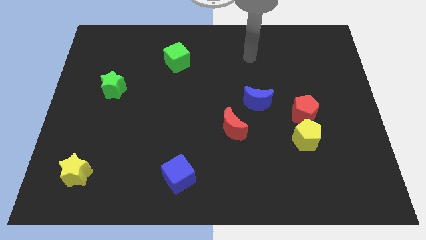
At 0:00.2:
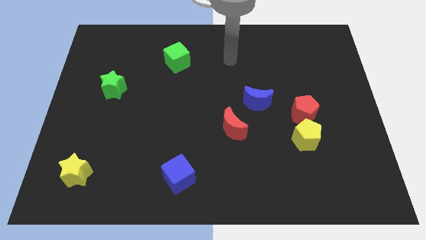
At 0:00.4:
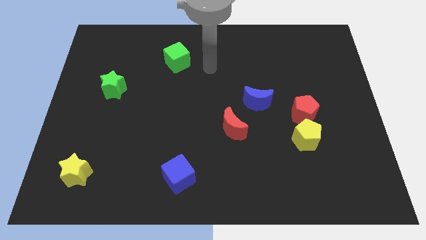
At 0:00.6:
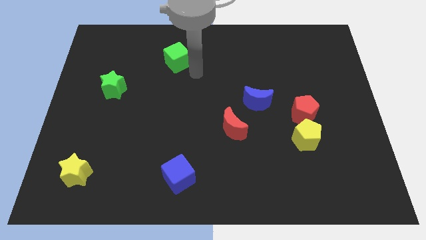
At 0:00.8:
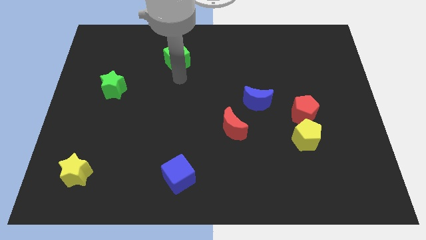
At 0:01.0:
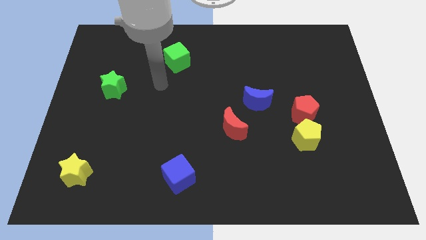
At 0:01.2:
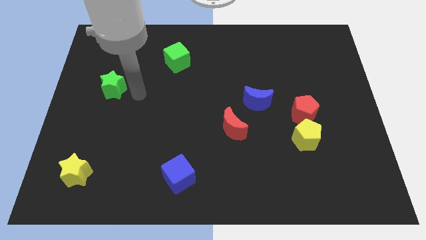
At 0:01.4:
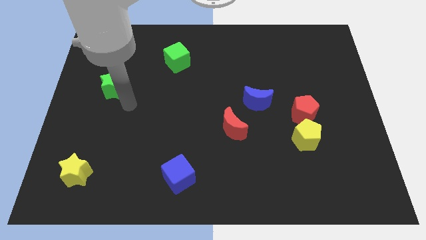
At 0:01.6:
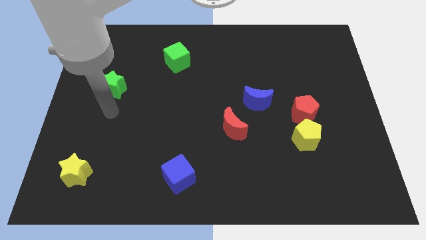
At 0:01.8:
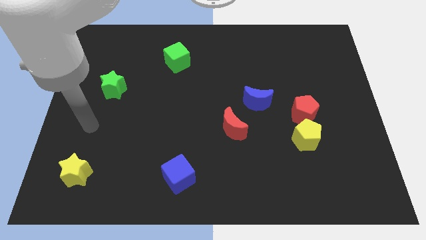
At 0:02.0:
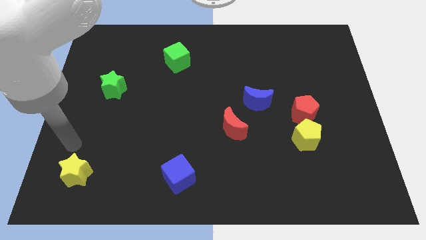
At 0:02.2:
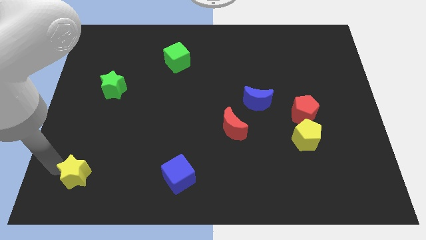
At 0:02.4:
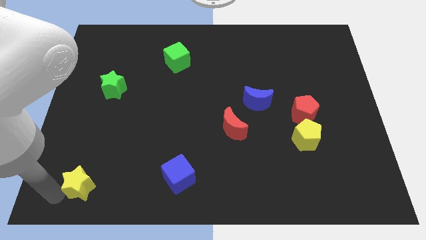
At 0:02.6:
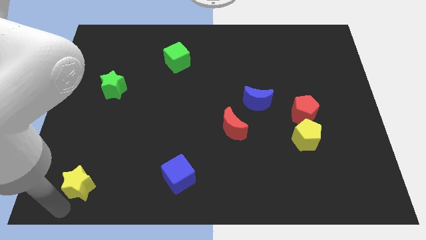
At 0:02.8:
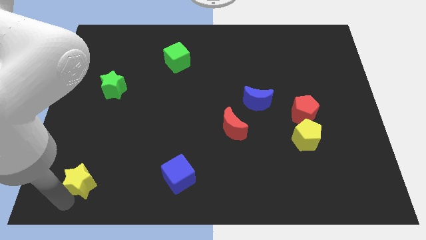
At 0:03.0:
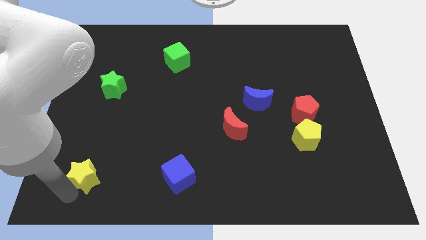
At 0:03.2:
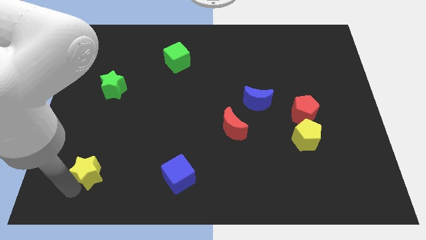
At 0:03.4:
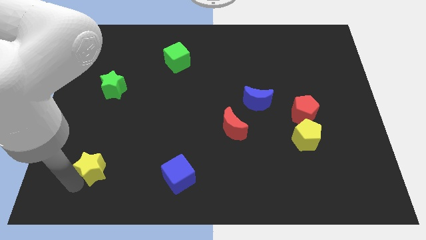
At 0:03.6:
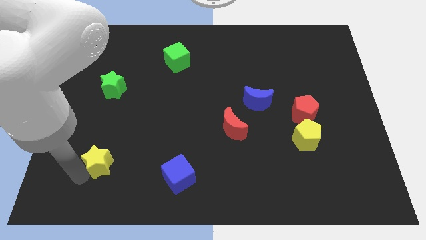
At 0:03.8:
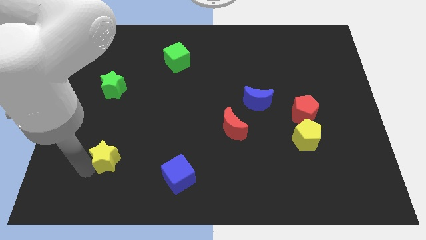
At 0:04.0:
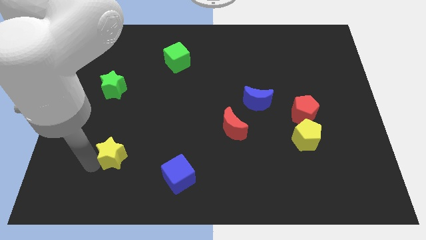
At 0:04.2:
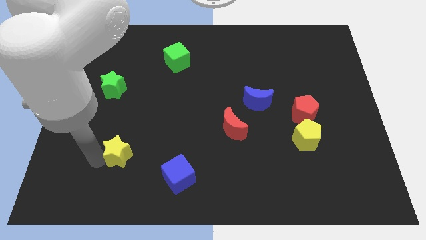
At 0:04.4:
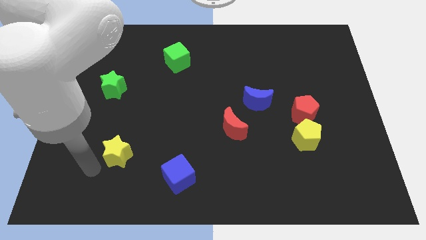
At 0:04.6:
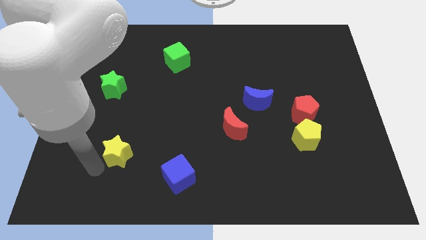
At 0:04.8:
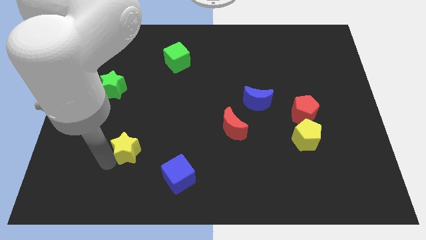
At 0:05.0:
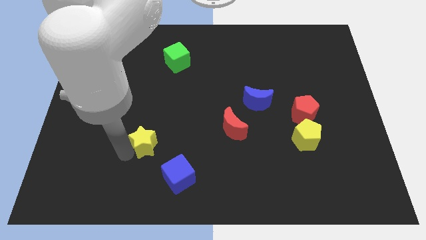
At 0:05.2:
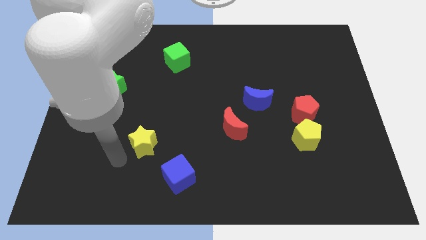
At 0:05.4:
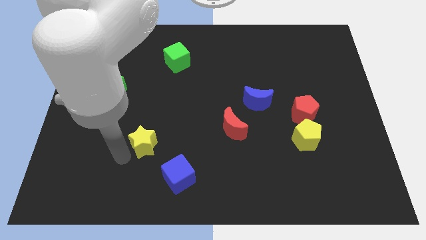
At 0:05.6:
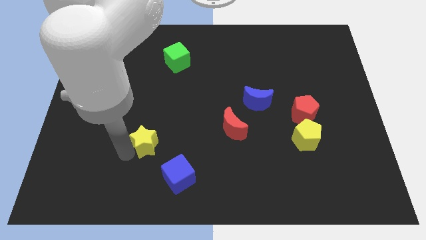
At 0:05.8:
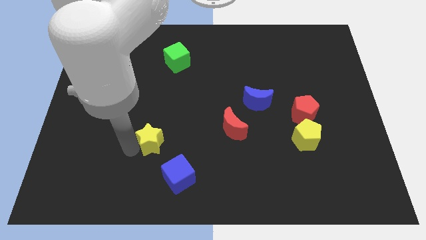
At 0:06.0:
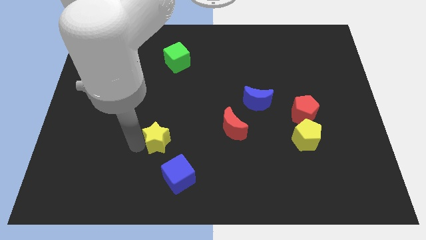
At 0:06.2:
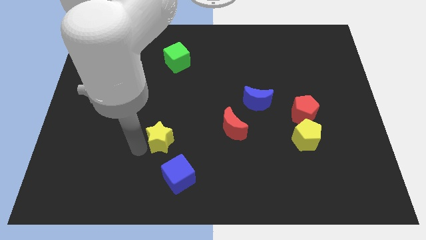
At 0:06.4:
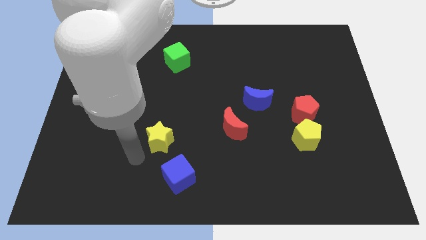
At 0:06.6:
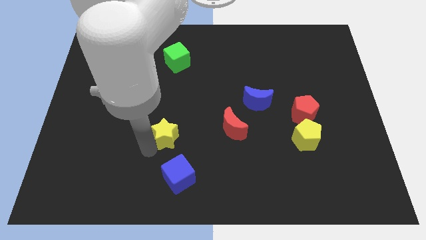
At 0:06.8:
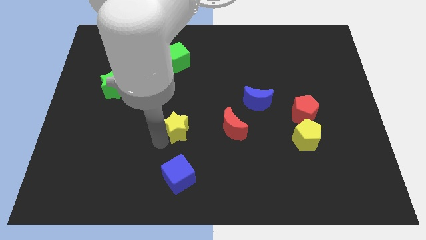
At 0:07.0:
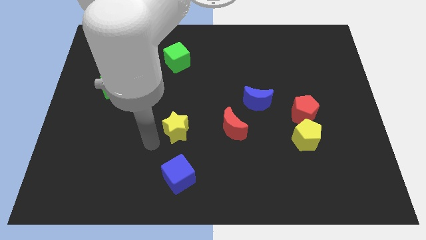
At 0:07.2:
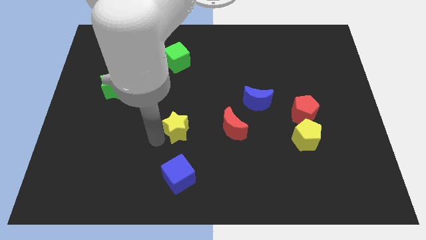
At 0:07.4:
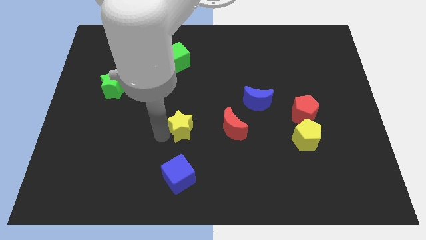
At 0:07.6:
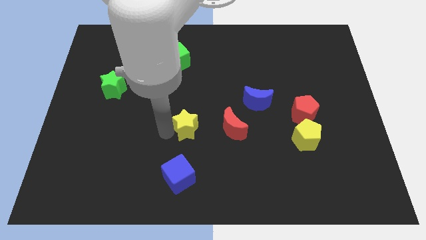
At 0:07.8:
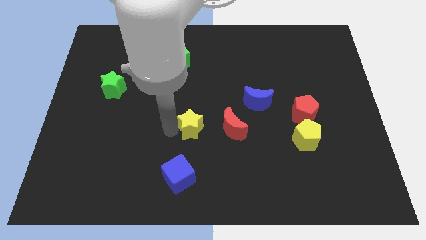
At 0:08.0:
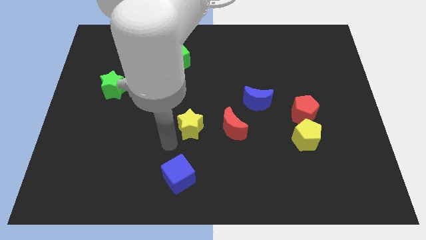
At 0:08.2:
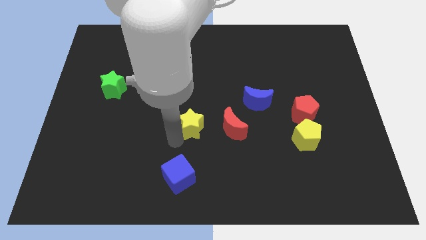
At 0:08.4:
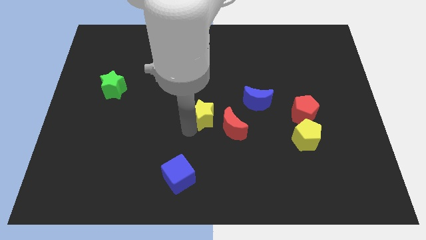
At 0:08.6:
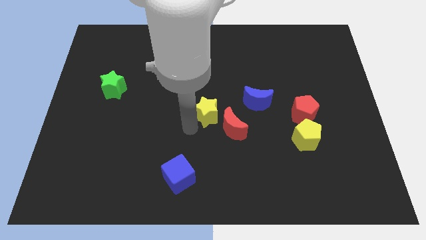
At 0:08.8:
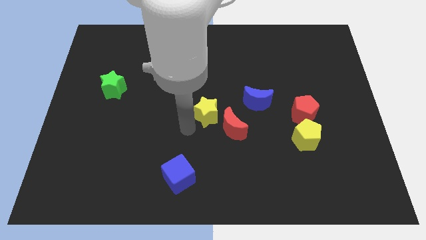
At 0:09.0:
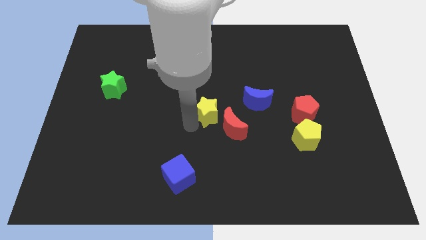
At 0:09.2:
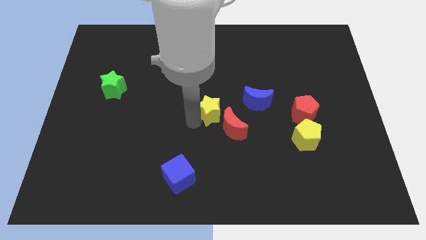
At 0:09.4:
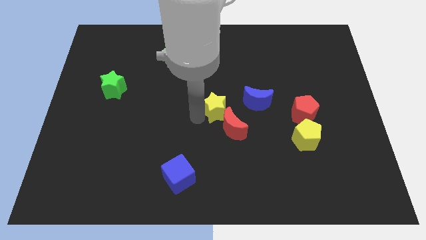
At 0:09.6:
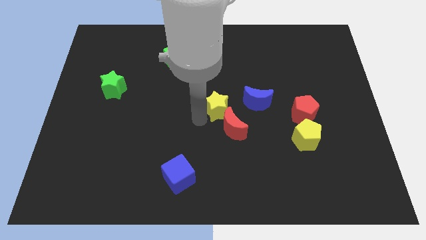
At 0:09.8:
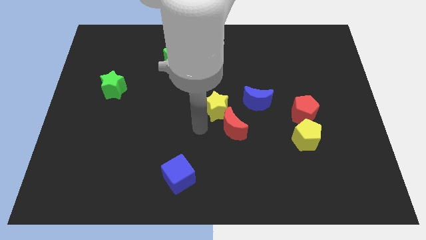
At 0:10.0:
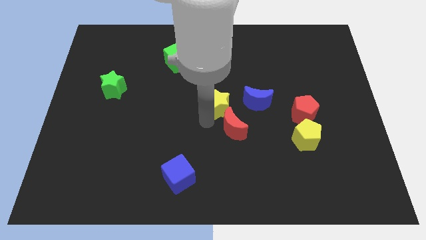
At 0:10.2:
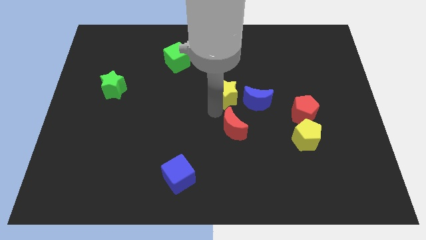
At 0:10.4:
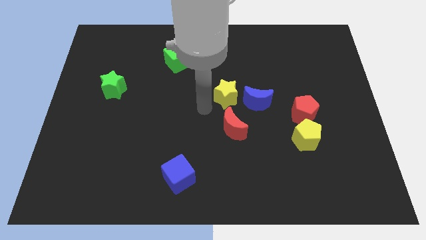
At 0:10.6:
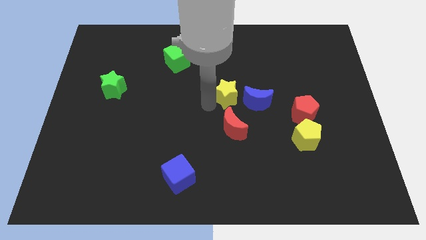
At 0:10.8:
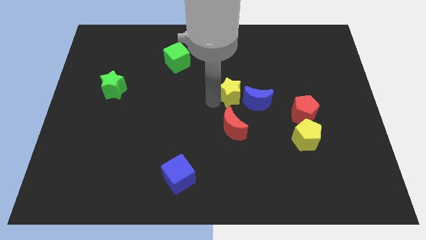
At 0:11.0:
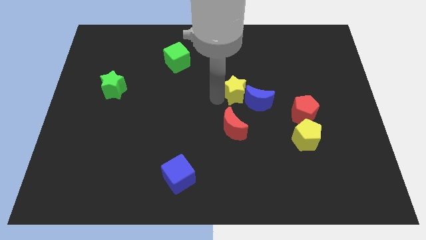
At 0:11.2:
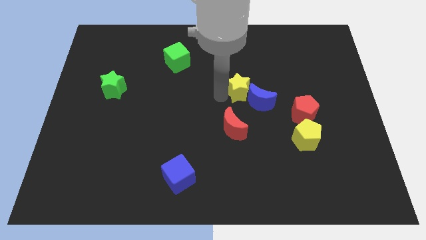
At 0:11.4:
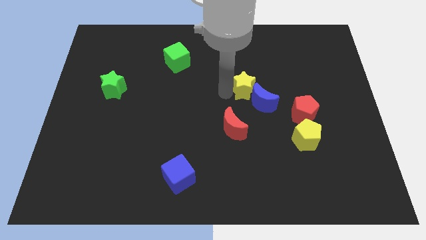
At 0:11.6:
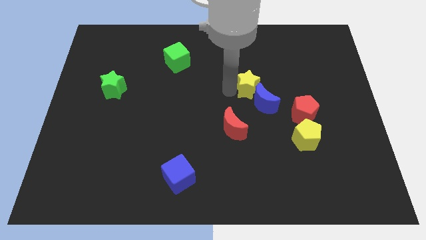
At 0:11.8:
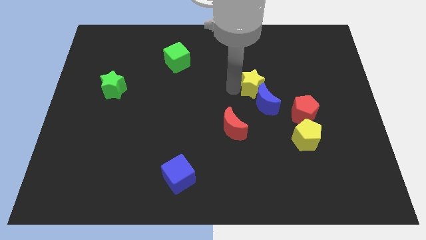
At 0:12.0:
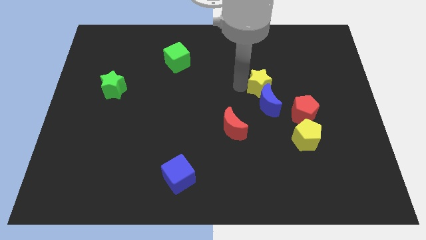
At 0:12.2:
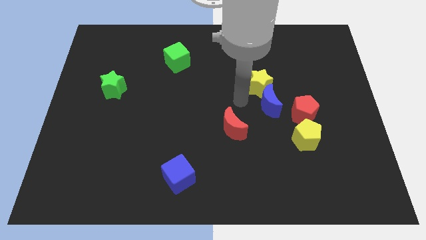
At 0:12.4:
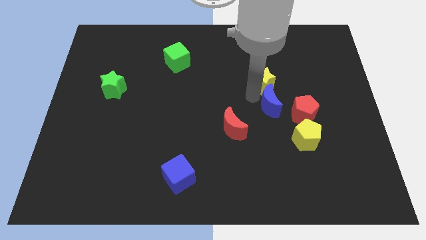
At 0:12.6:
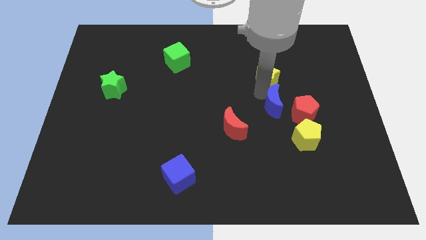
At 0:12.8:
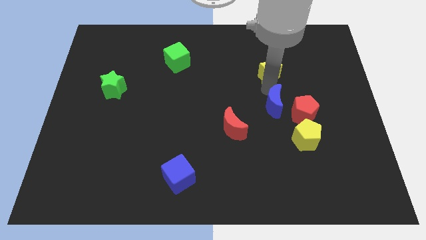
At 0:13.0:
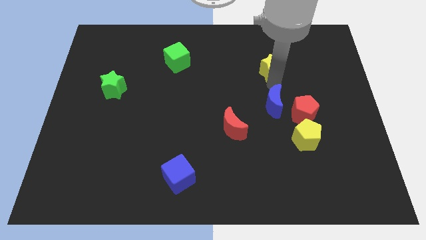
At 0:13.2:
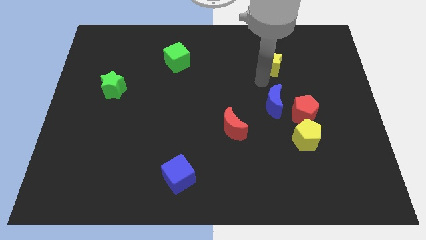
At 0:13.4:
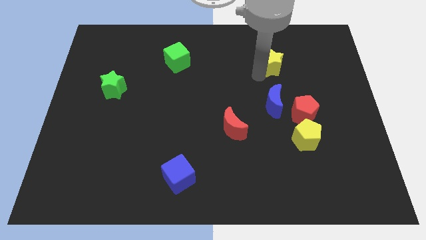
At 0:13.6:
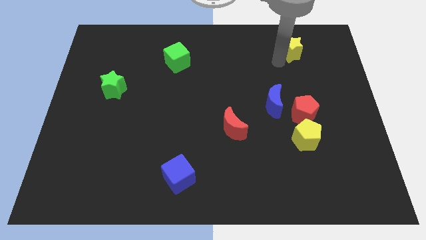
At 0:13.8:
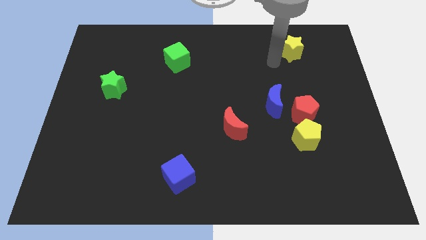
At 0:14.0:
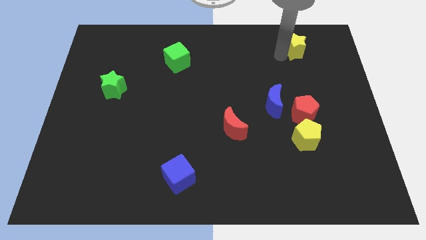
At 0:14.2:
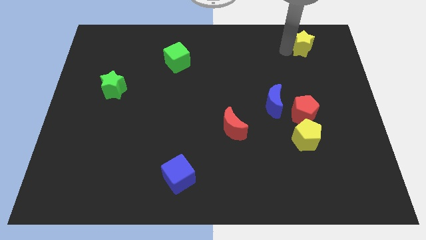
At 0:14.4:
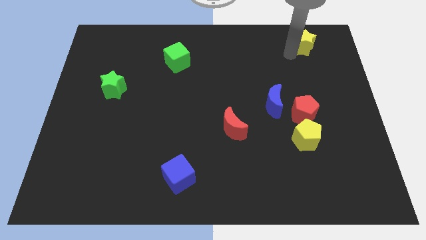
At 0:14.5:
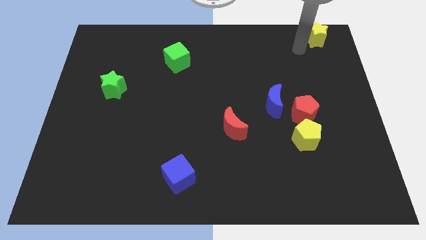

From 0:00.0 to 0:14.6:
move the yellow star to the top right of the board
